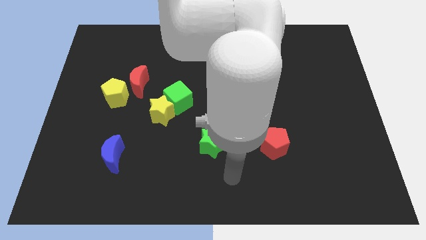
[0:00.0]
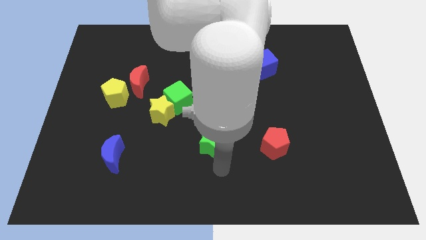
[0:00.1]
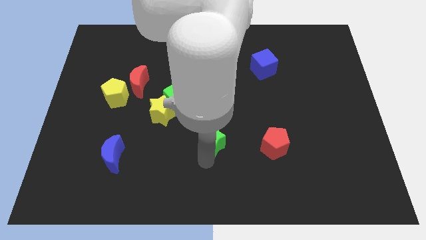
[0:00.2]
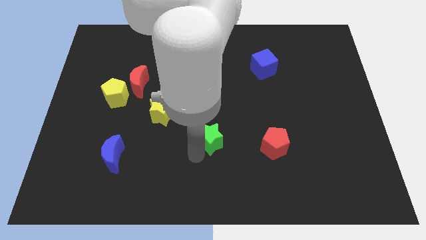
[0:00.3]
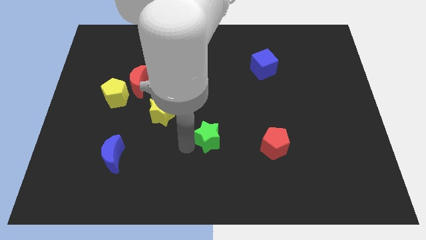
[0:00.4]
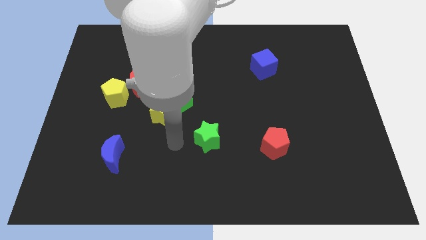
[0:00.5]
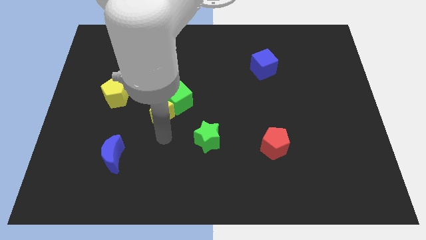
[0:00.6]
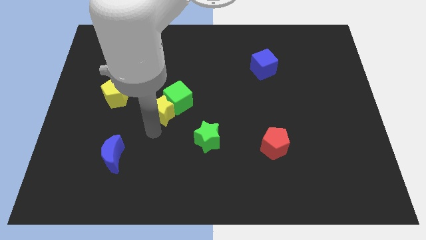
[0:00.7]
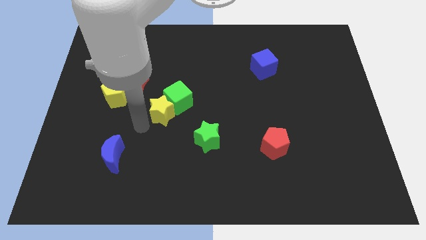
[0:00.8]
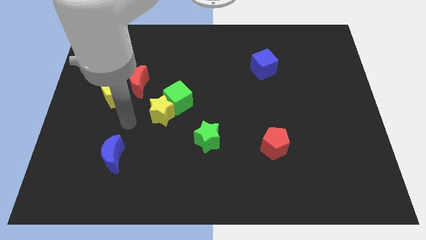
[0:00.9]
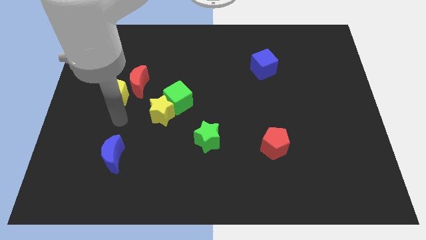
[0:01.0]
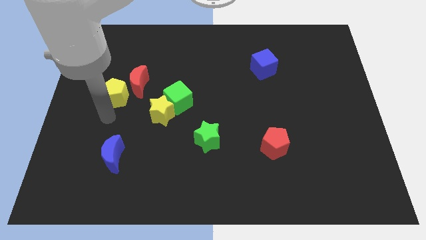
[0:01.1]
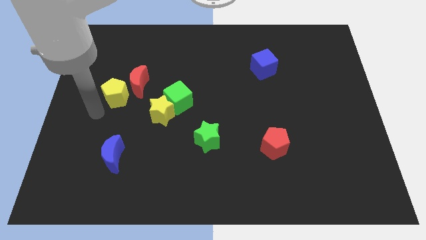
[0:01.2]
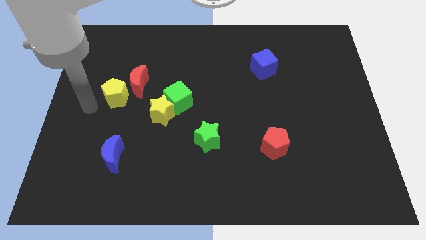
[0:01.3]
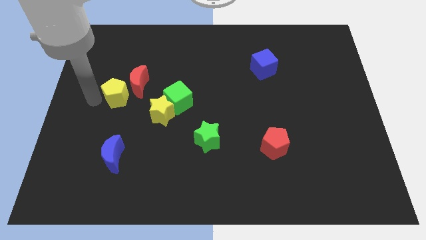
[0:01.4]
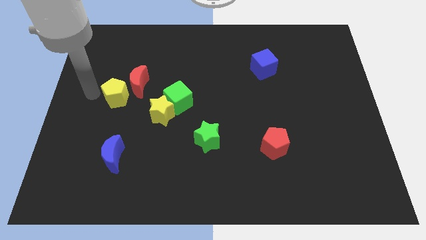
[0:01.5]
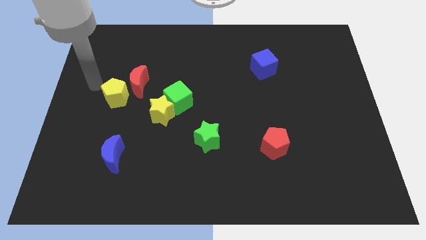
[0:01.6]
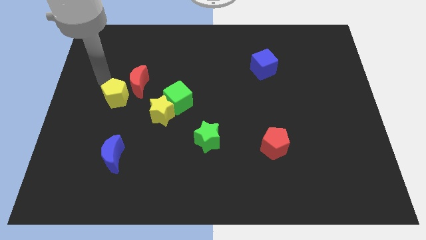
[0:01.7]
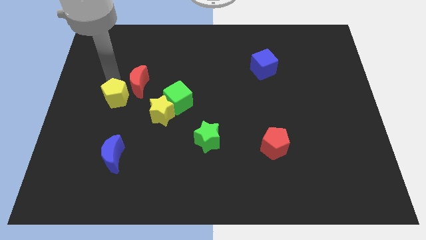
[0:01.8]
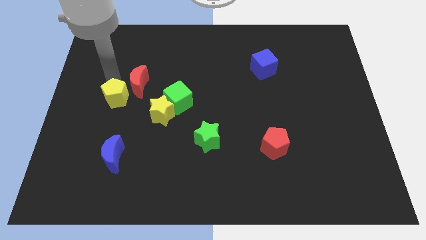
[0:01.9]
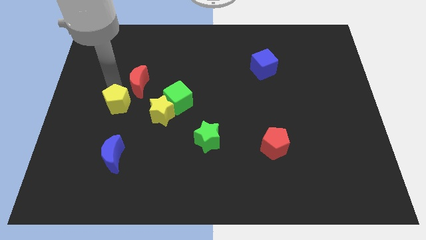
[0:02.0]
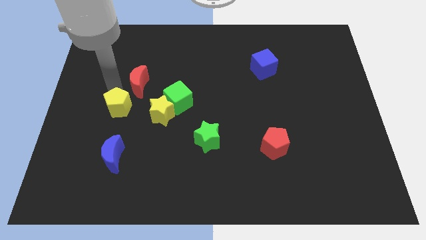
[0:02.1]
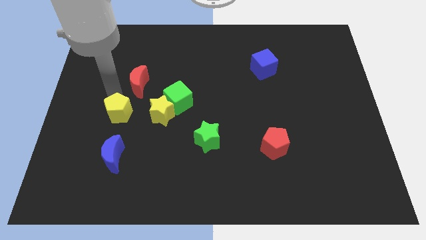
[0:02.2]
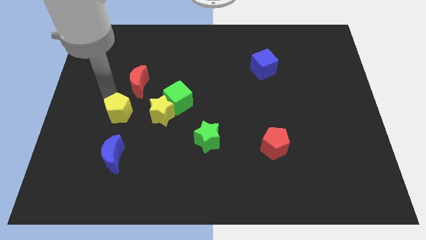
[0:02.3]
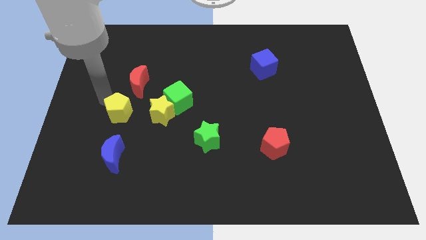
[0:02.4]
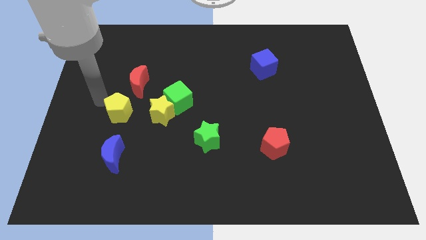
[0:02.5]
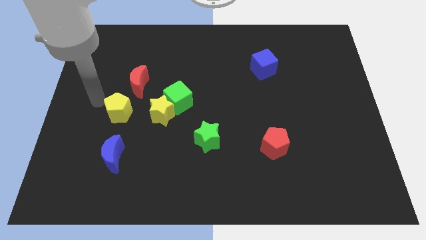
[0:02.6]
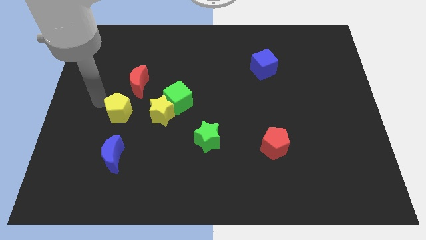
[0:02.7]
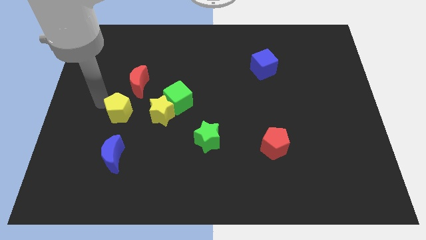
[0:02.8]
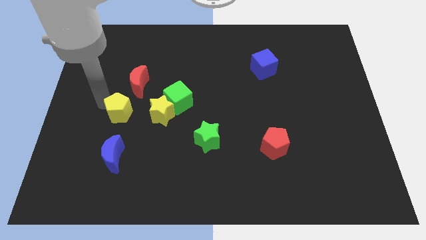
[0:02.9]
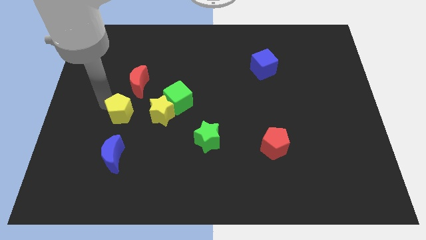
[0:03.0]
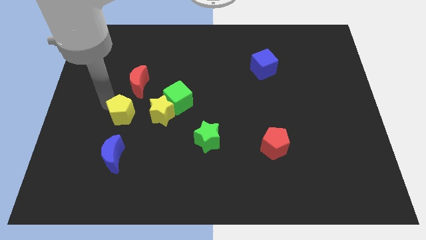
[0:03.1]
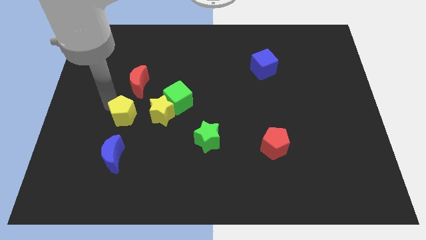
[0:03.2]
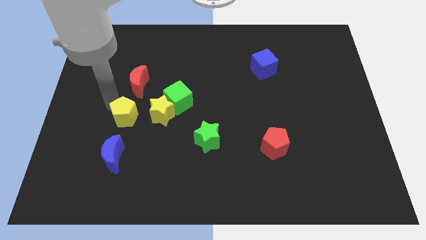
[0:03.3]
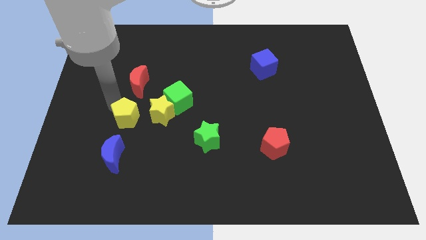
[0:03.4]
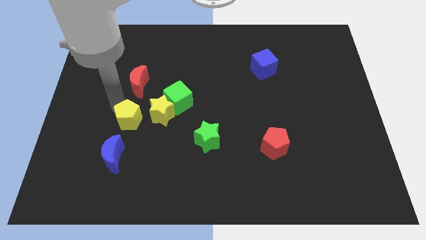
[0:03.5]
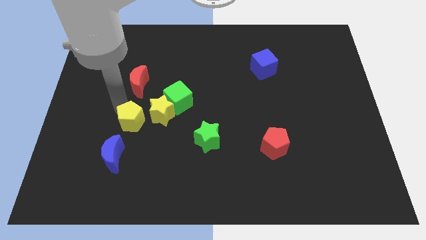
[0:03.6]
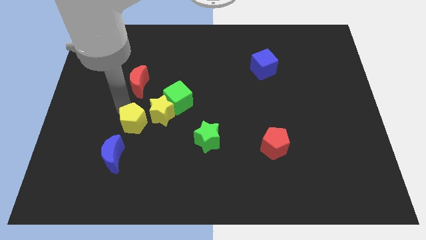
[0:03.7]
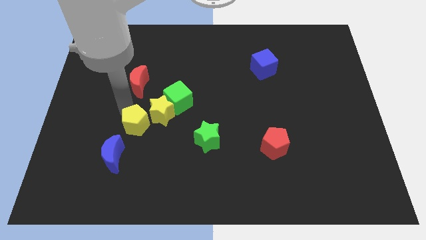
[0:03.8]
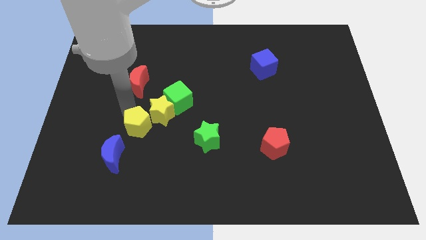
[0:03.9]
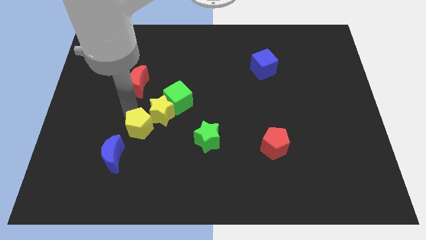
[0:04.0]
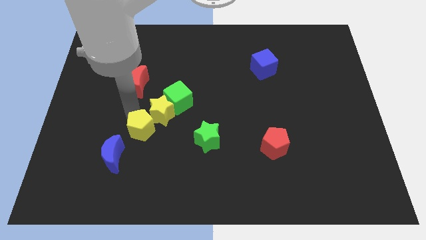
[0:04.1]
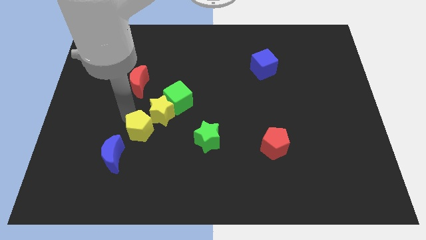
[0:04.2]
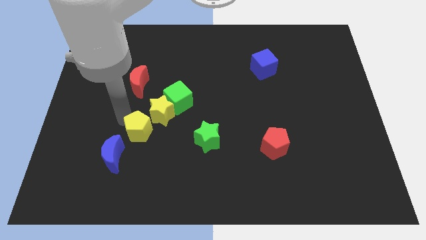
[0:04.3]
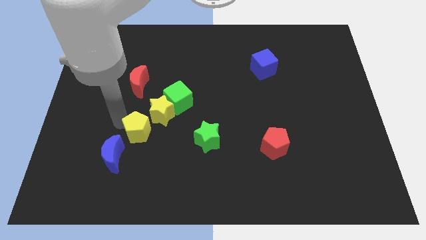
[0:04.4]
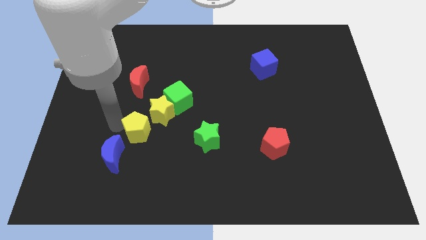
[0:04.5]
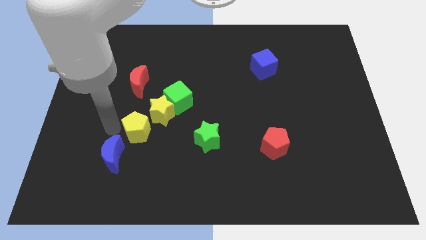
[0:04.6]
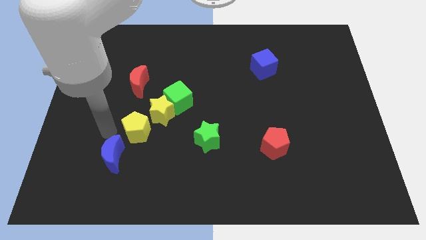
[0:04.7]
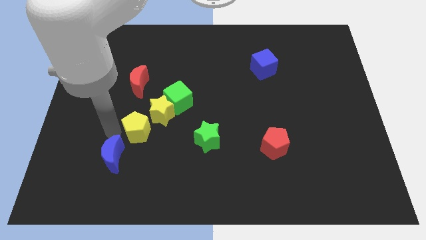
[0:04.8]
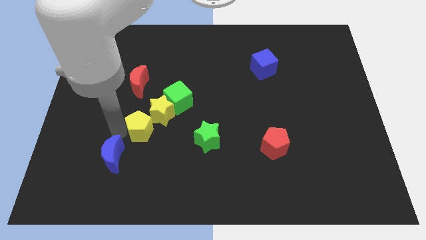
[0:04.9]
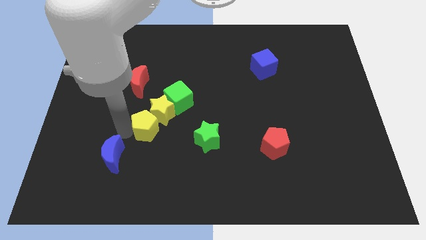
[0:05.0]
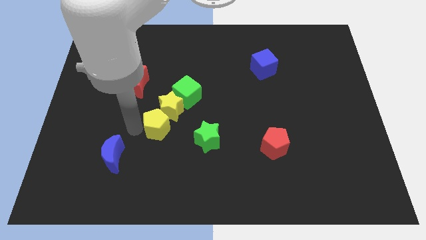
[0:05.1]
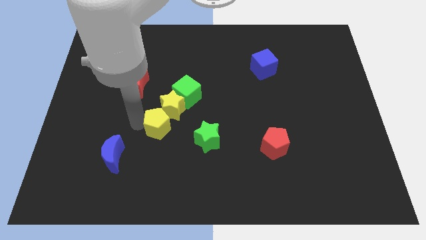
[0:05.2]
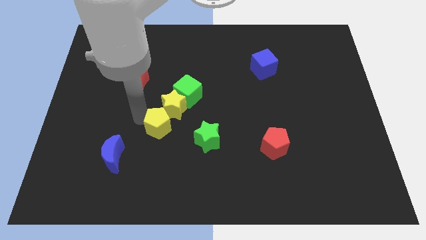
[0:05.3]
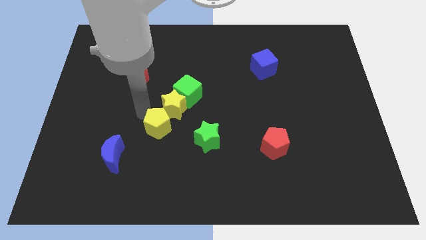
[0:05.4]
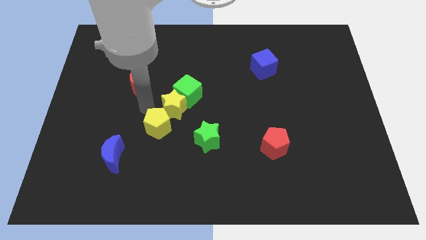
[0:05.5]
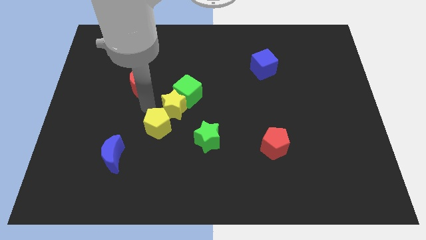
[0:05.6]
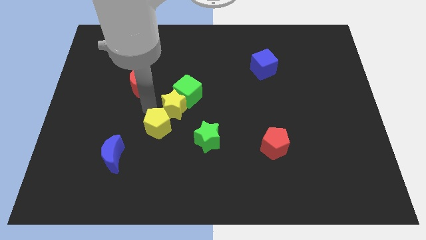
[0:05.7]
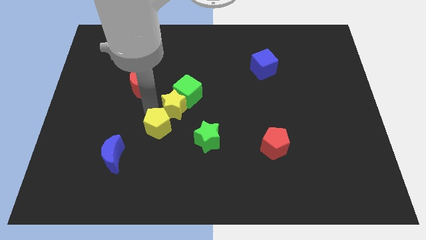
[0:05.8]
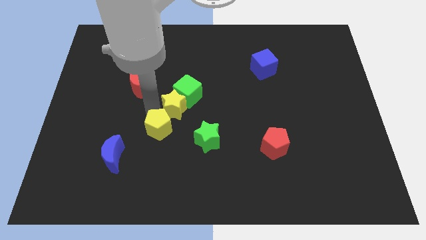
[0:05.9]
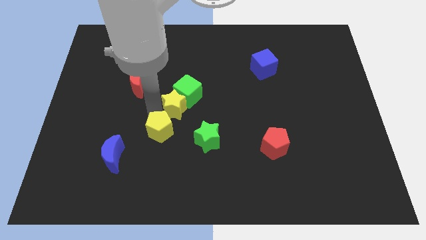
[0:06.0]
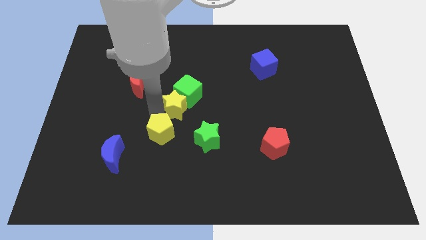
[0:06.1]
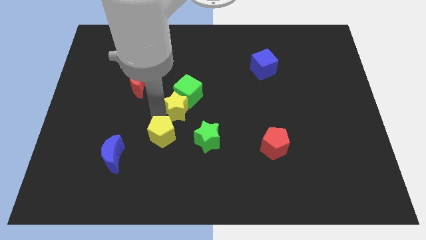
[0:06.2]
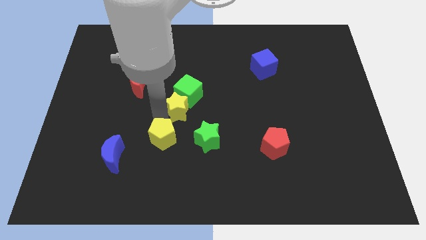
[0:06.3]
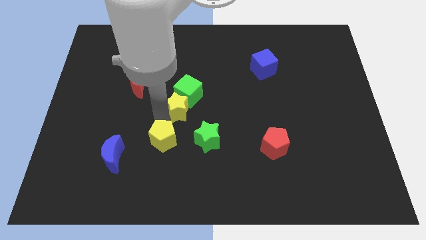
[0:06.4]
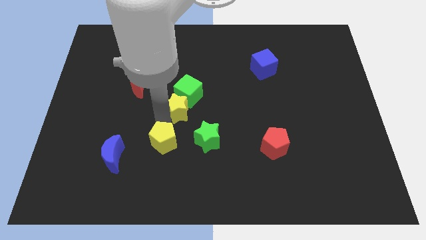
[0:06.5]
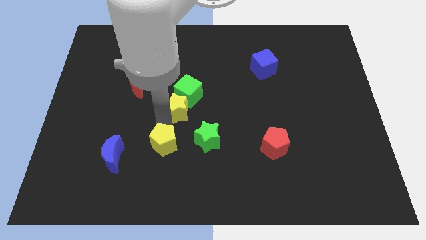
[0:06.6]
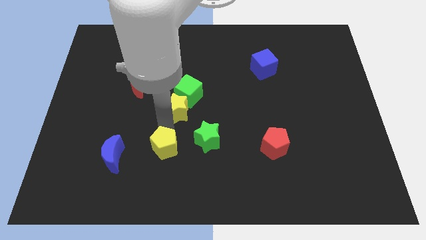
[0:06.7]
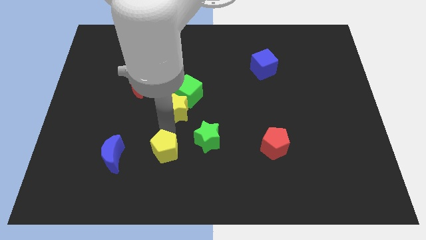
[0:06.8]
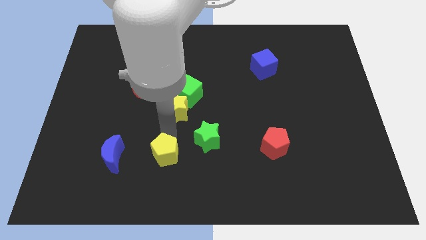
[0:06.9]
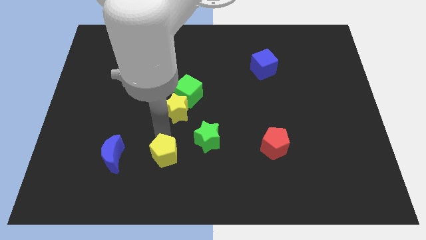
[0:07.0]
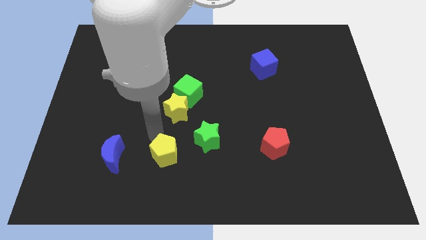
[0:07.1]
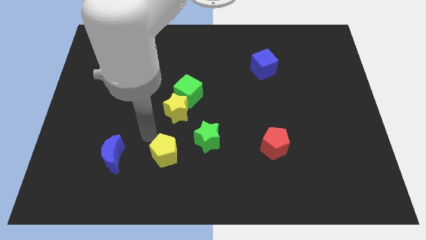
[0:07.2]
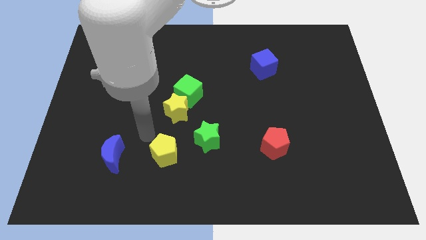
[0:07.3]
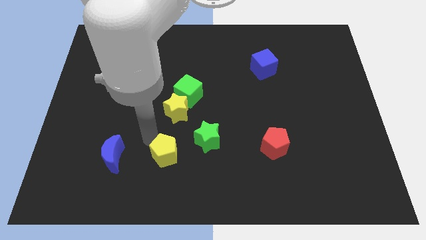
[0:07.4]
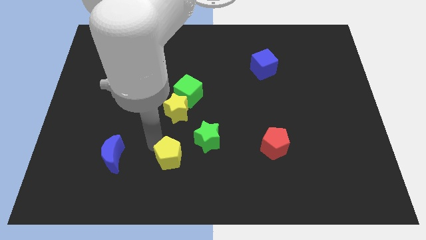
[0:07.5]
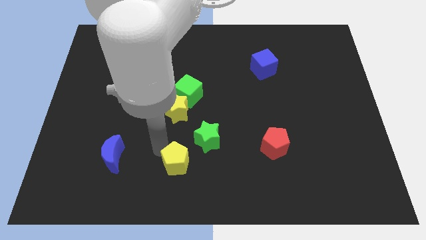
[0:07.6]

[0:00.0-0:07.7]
move the yellow pentagon to the bottom side
